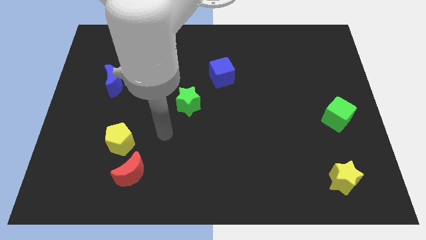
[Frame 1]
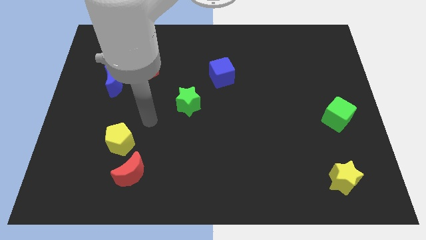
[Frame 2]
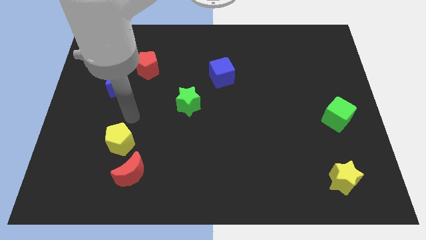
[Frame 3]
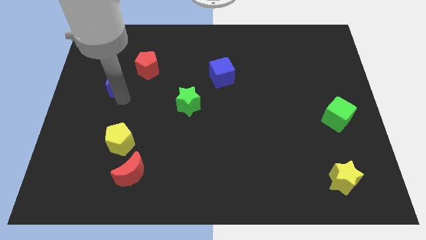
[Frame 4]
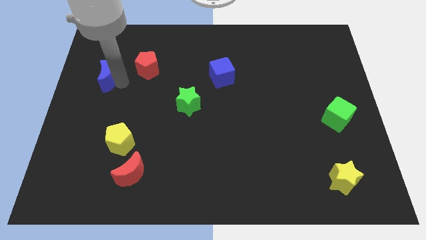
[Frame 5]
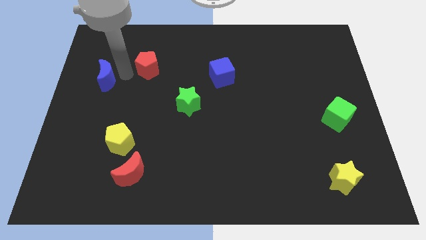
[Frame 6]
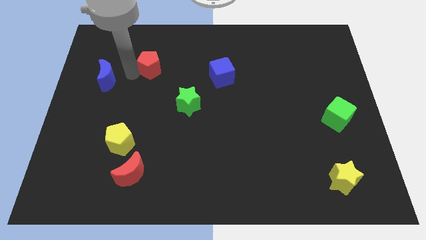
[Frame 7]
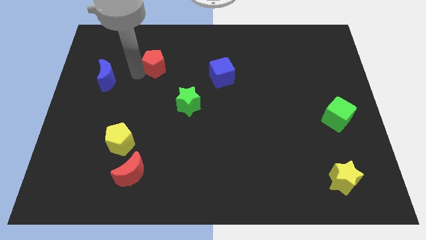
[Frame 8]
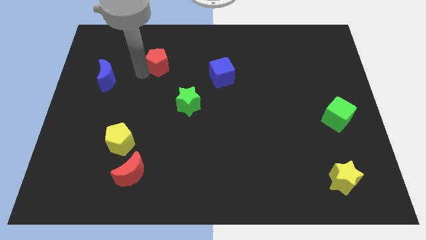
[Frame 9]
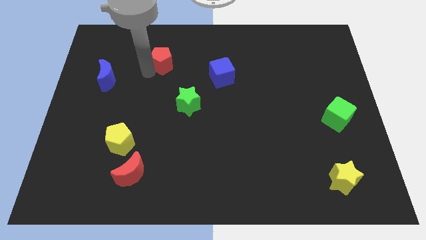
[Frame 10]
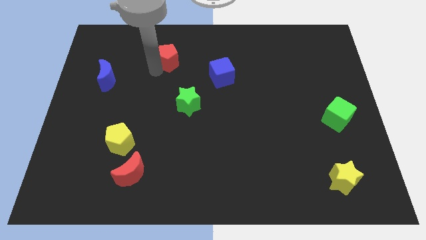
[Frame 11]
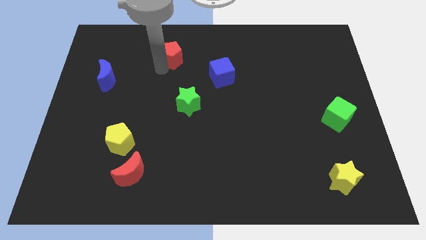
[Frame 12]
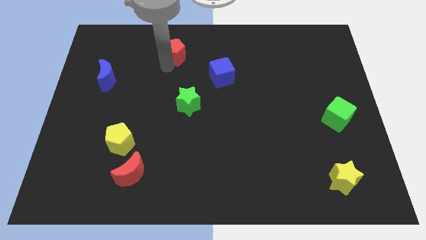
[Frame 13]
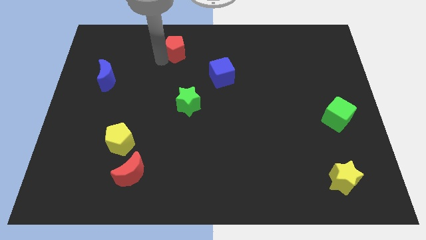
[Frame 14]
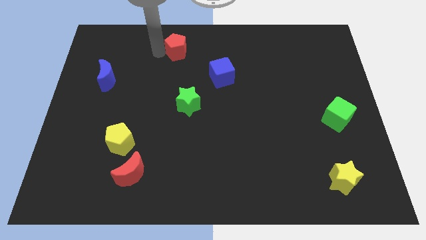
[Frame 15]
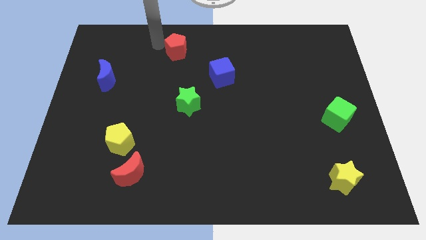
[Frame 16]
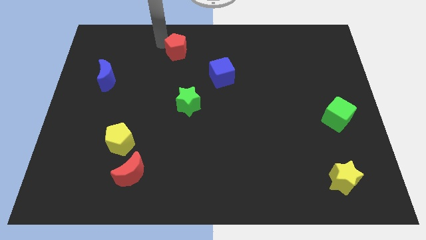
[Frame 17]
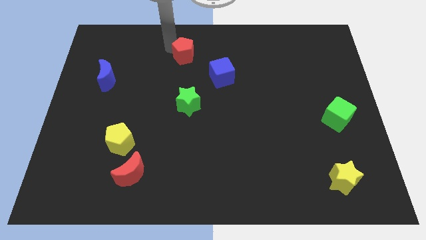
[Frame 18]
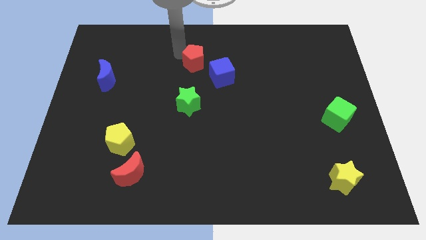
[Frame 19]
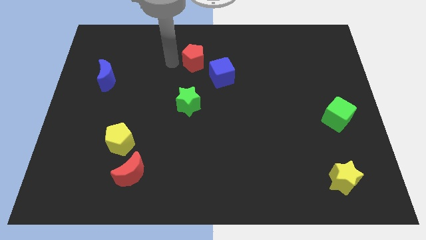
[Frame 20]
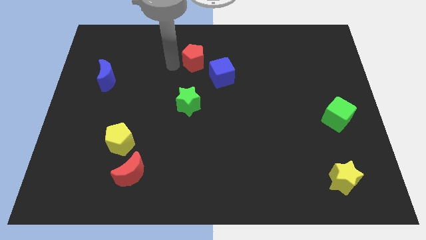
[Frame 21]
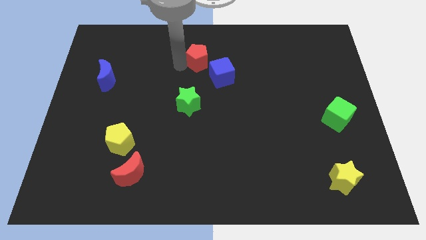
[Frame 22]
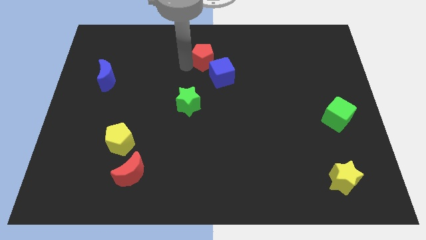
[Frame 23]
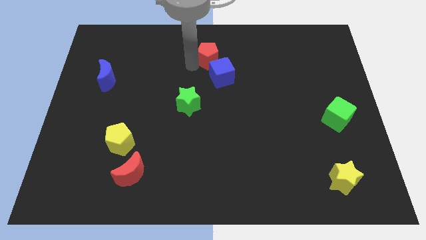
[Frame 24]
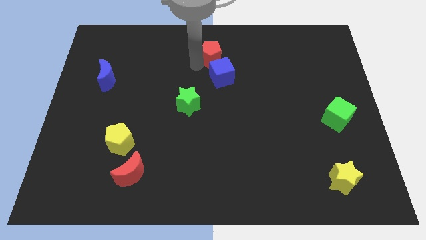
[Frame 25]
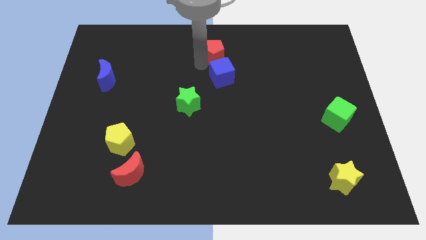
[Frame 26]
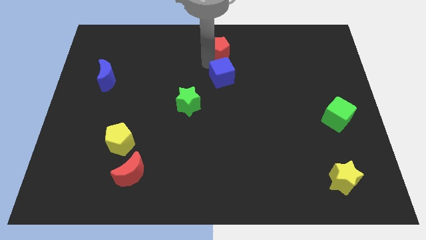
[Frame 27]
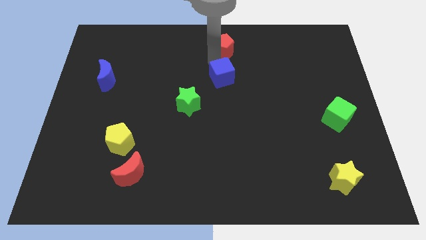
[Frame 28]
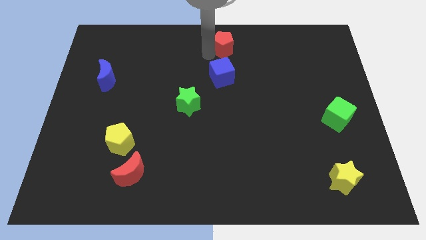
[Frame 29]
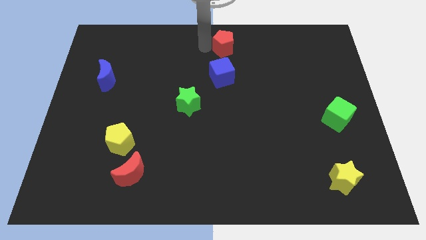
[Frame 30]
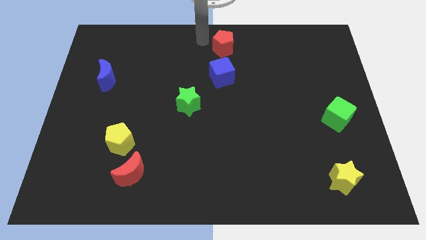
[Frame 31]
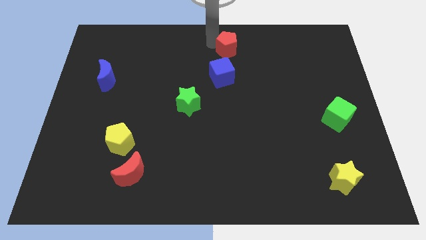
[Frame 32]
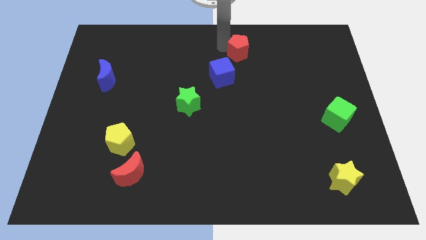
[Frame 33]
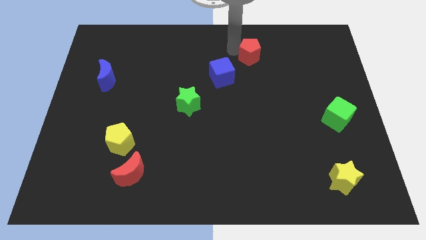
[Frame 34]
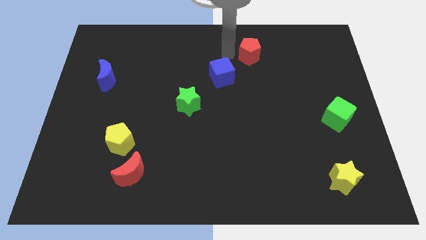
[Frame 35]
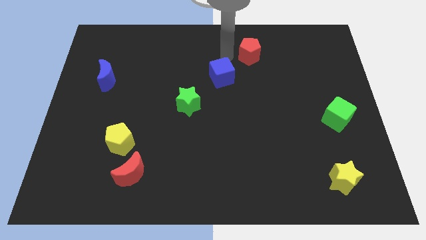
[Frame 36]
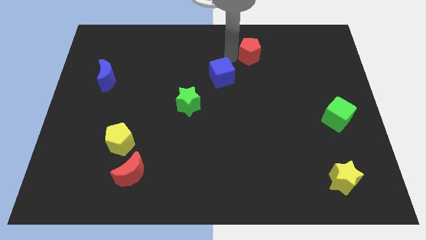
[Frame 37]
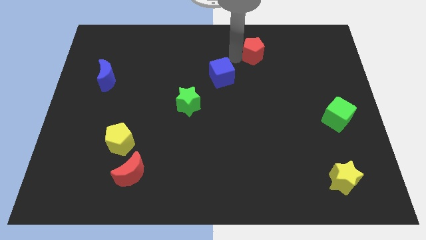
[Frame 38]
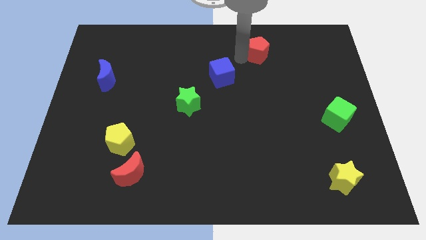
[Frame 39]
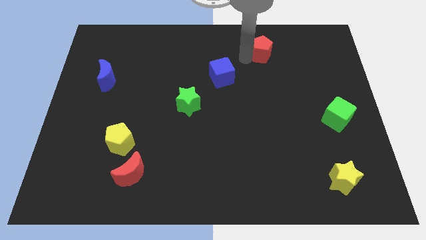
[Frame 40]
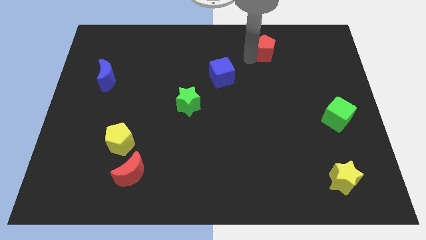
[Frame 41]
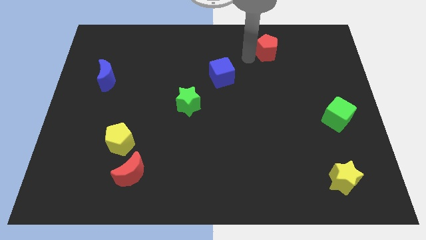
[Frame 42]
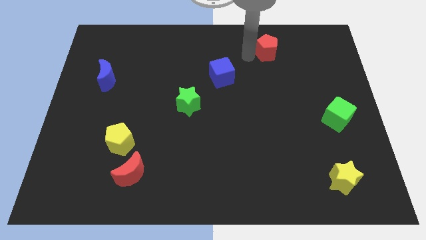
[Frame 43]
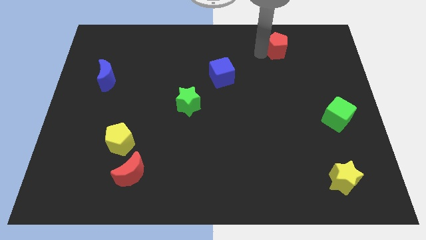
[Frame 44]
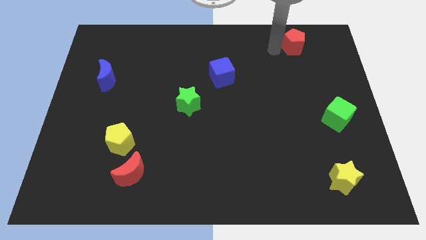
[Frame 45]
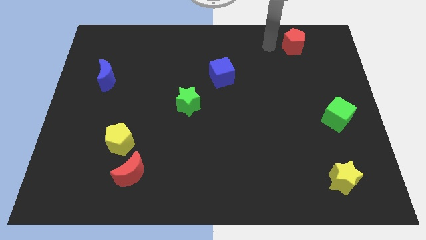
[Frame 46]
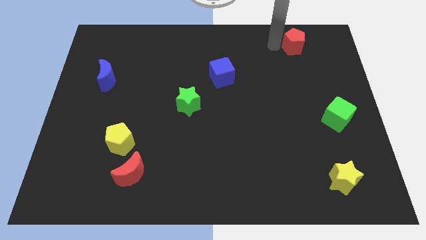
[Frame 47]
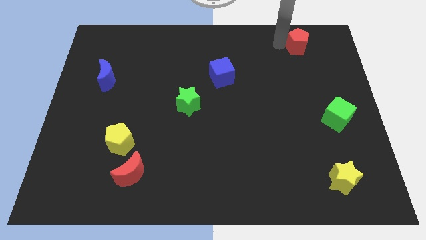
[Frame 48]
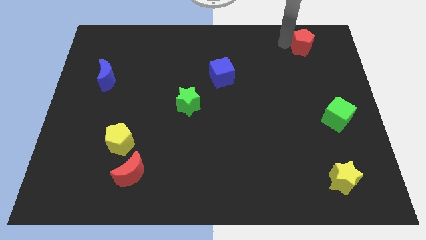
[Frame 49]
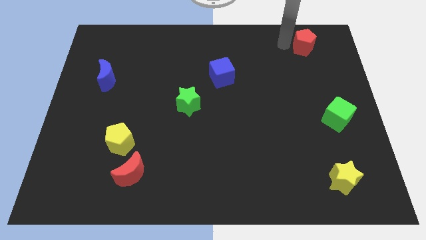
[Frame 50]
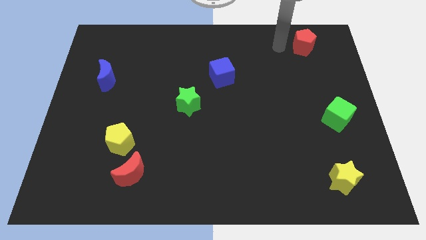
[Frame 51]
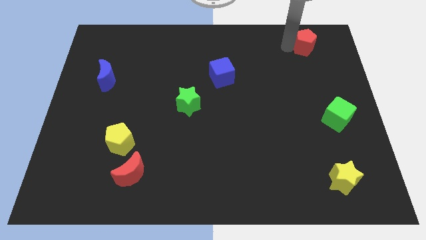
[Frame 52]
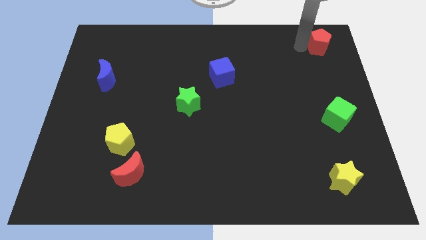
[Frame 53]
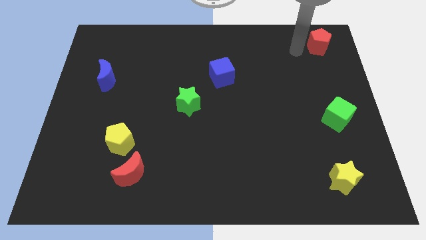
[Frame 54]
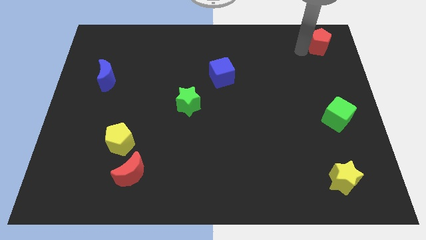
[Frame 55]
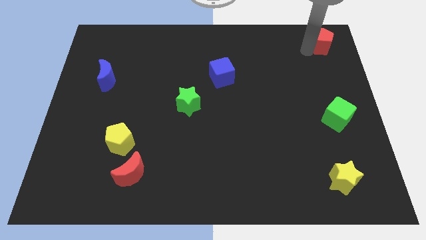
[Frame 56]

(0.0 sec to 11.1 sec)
move the red pentagon to the upper right corner
